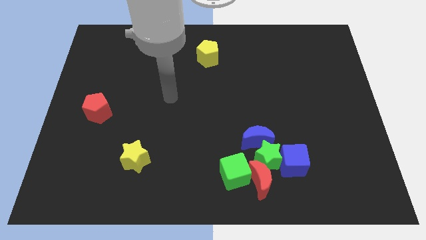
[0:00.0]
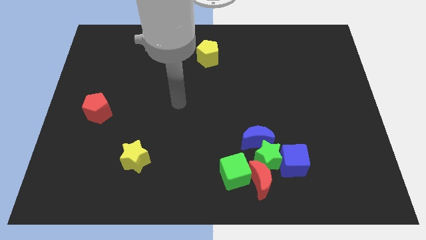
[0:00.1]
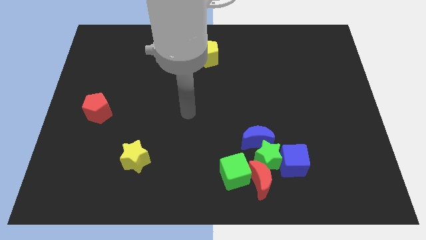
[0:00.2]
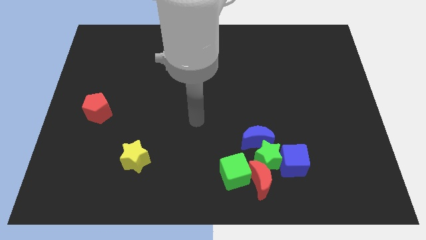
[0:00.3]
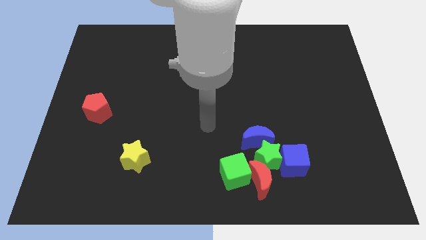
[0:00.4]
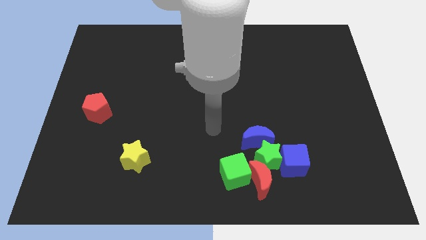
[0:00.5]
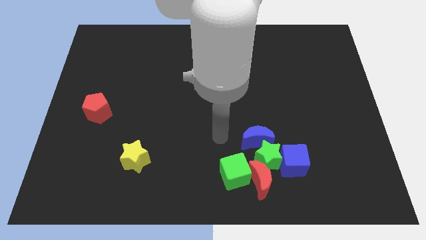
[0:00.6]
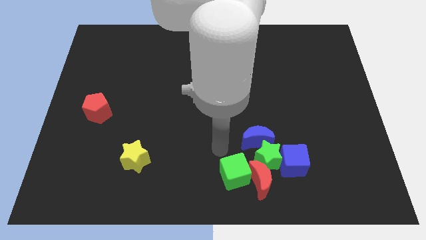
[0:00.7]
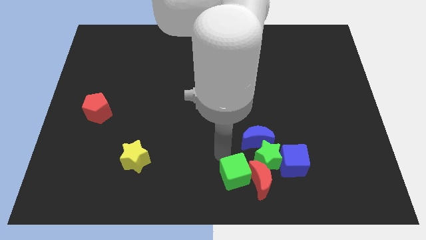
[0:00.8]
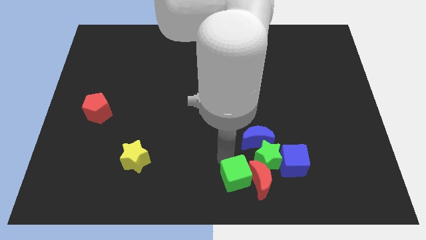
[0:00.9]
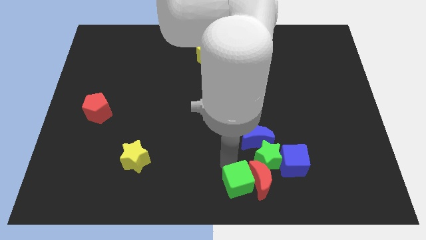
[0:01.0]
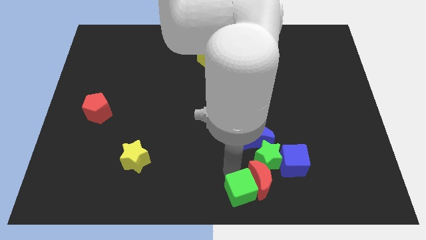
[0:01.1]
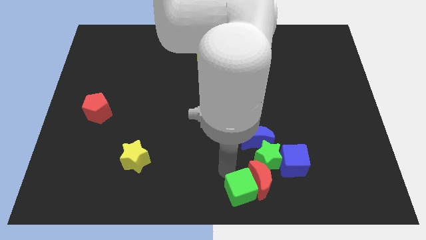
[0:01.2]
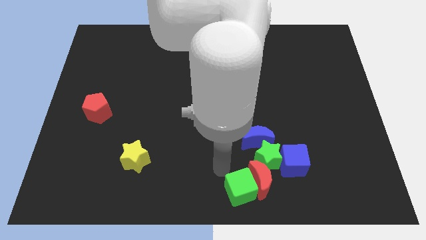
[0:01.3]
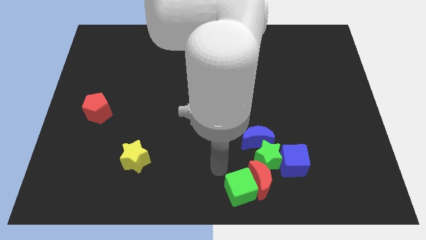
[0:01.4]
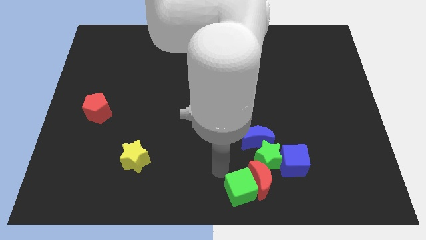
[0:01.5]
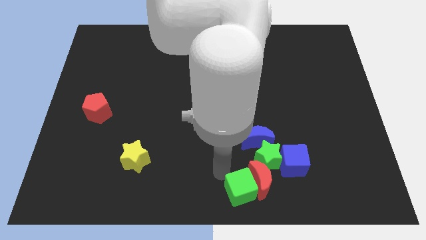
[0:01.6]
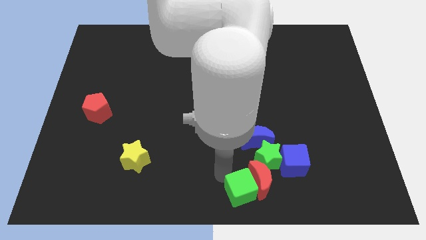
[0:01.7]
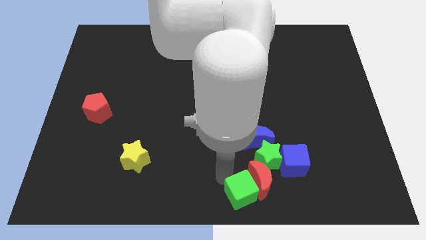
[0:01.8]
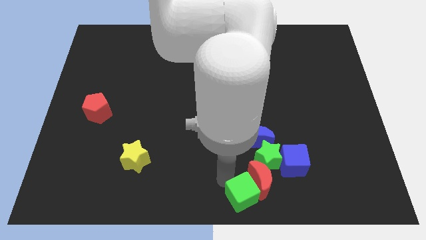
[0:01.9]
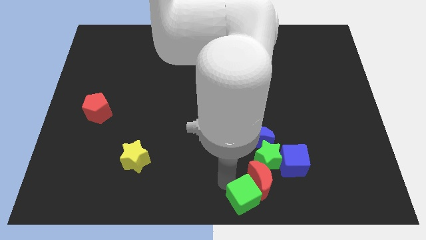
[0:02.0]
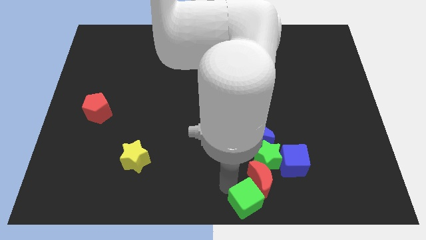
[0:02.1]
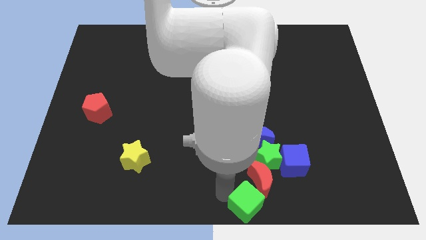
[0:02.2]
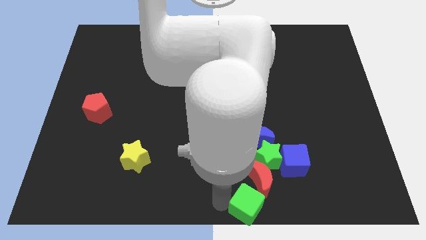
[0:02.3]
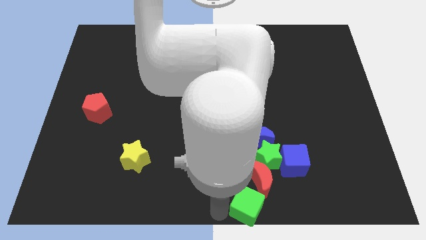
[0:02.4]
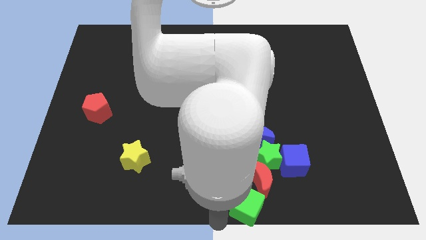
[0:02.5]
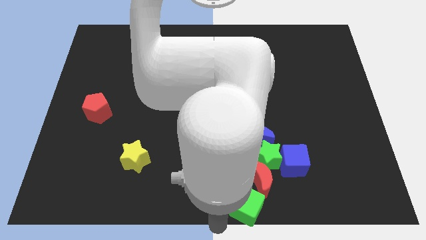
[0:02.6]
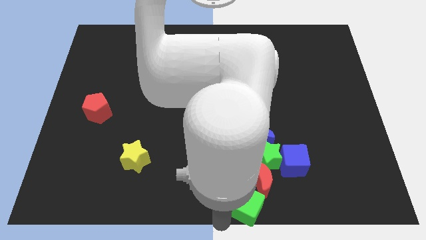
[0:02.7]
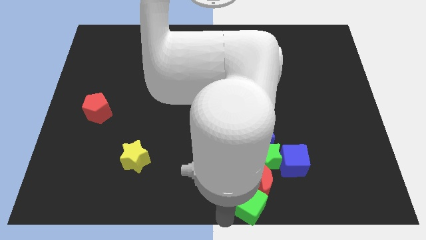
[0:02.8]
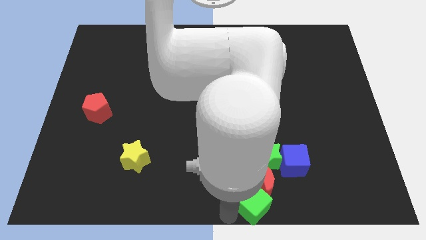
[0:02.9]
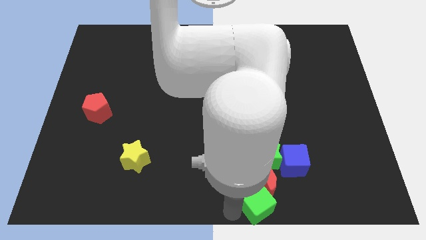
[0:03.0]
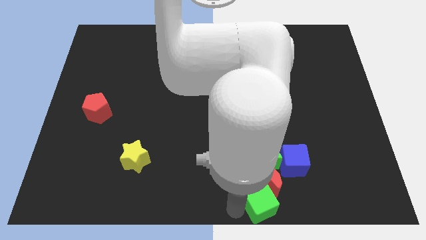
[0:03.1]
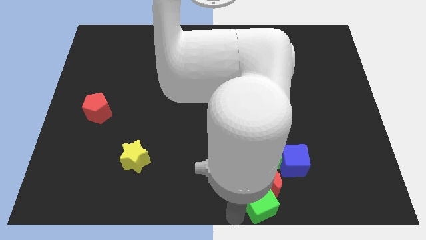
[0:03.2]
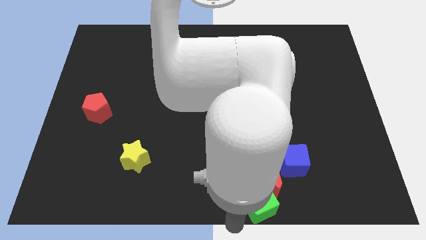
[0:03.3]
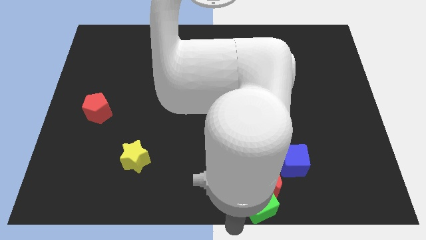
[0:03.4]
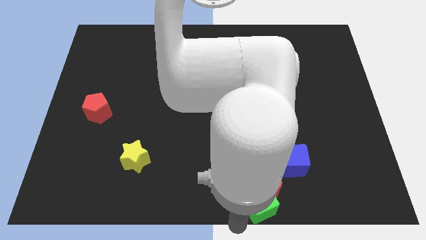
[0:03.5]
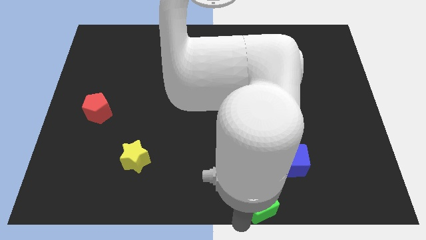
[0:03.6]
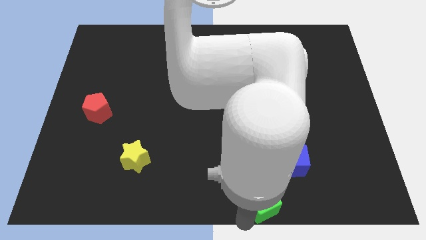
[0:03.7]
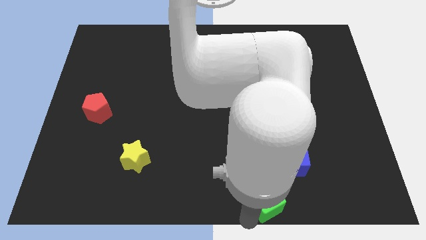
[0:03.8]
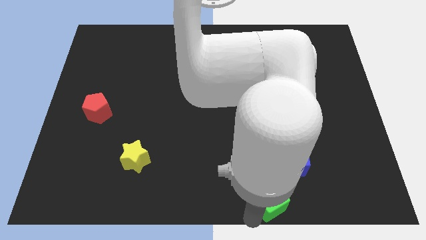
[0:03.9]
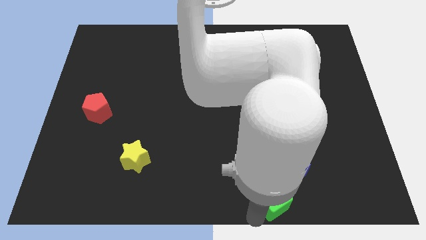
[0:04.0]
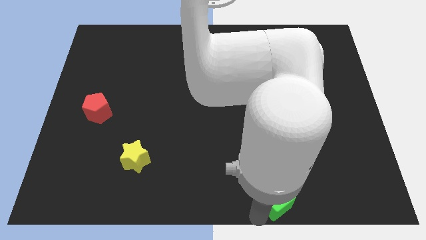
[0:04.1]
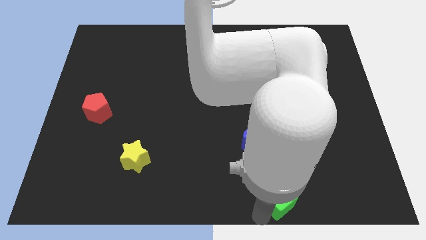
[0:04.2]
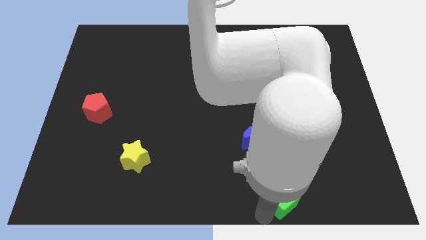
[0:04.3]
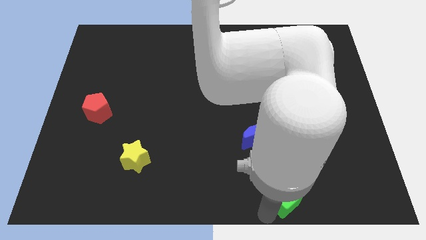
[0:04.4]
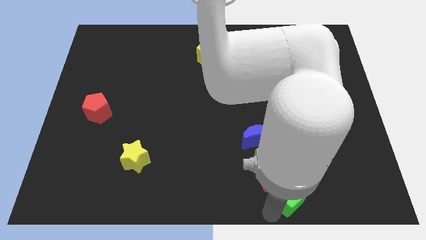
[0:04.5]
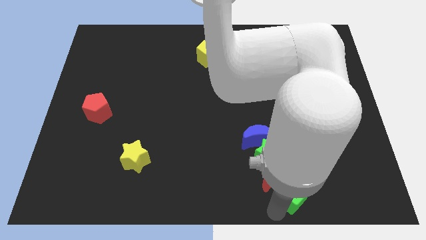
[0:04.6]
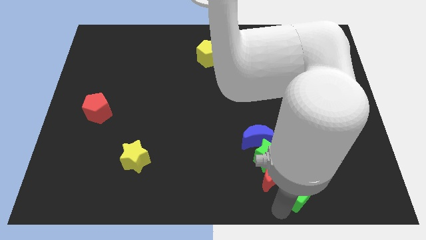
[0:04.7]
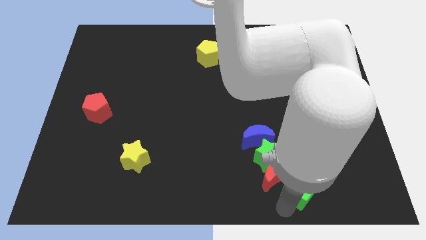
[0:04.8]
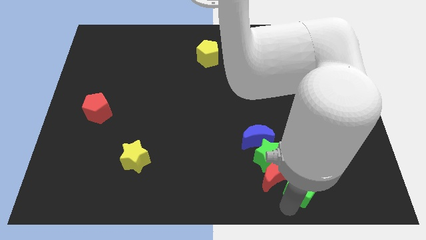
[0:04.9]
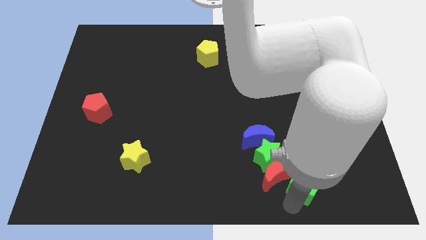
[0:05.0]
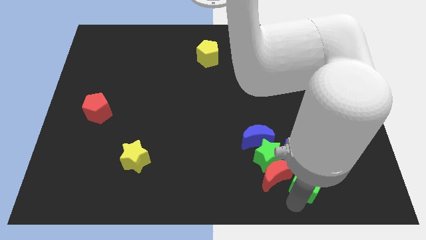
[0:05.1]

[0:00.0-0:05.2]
slide the green cube towards the blue cube

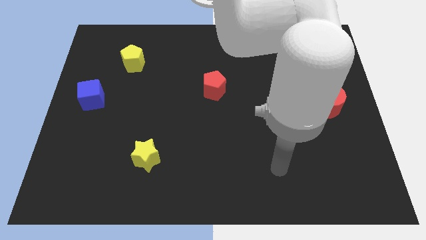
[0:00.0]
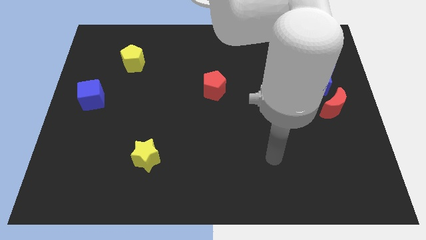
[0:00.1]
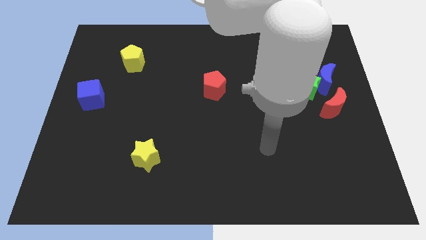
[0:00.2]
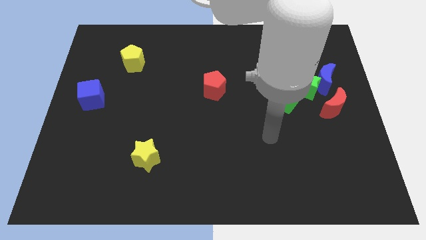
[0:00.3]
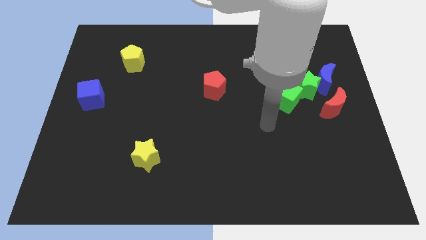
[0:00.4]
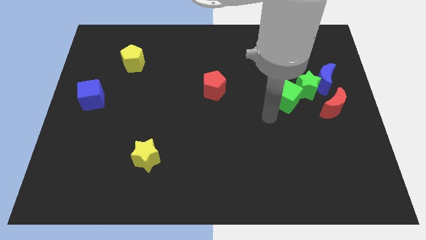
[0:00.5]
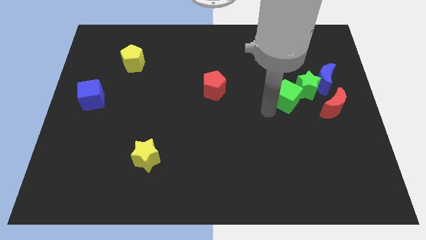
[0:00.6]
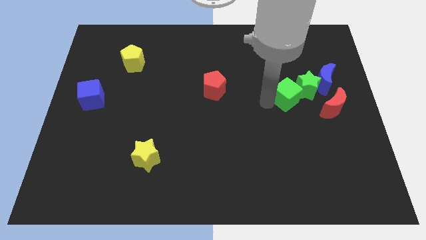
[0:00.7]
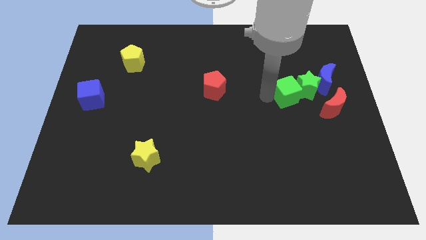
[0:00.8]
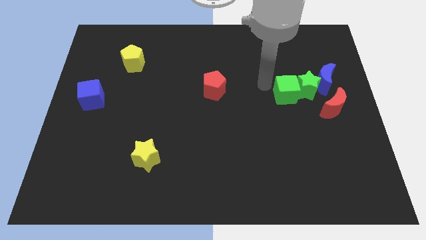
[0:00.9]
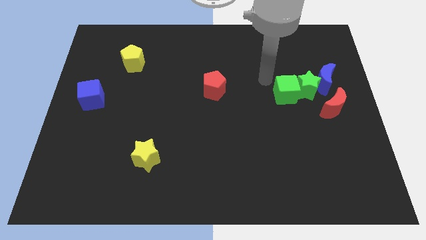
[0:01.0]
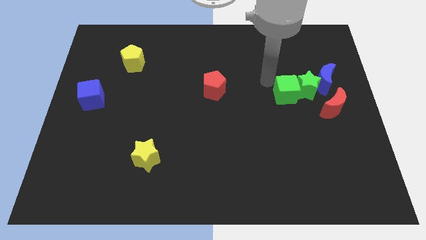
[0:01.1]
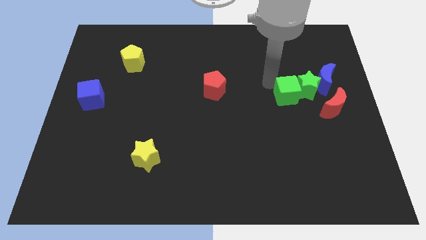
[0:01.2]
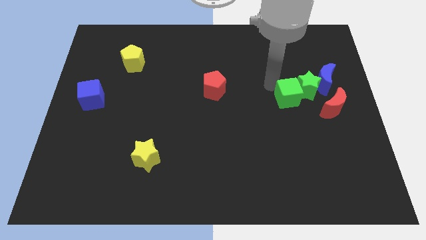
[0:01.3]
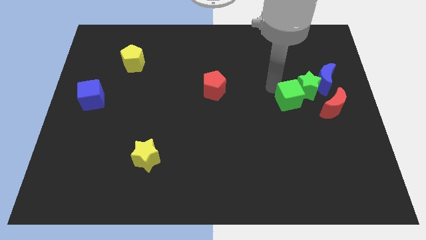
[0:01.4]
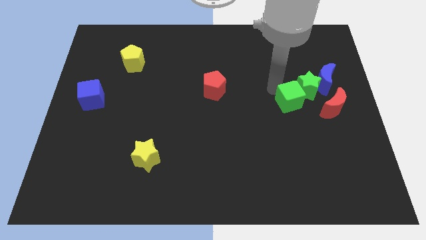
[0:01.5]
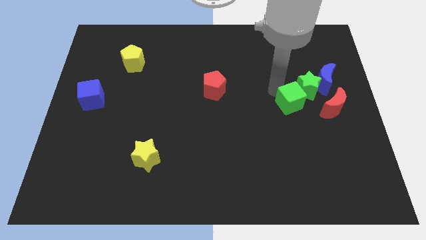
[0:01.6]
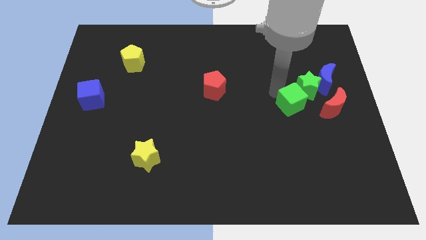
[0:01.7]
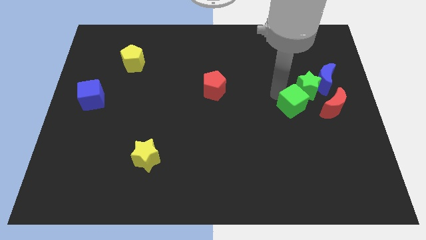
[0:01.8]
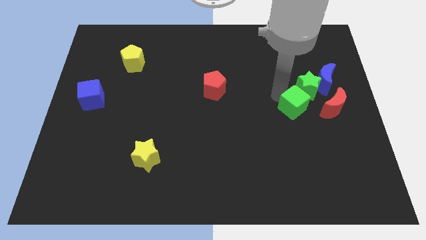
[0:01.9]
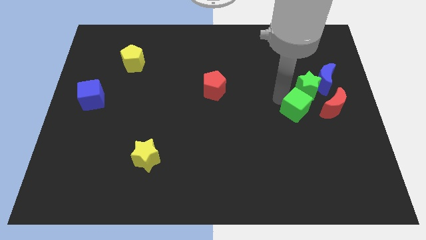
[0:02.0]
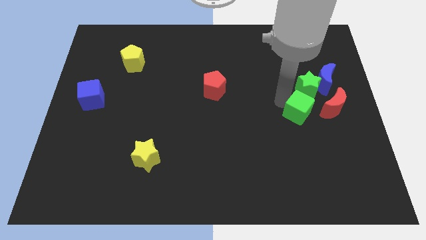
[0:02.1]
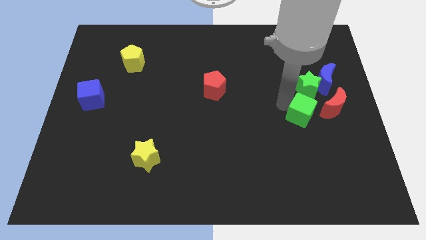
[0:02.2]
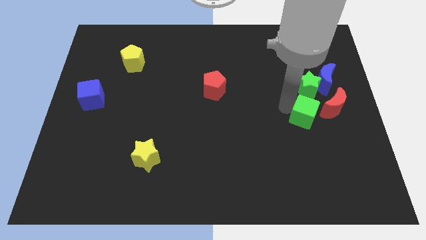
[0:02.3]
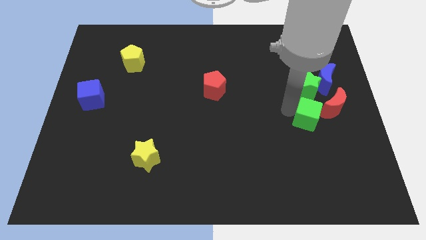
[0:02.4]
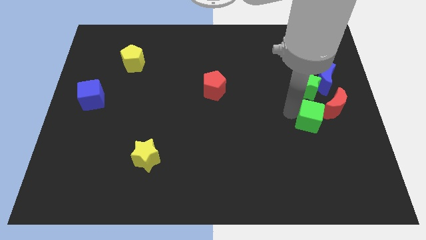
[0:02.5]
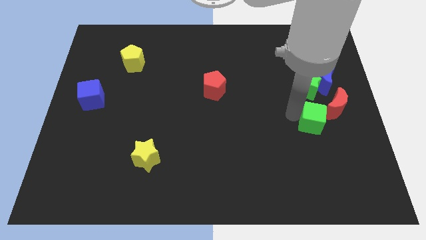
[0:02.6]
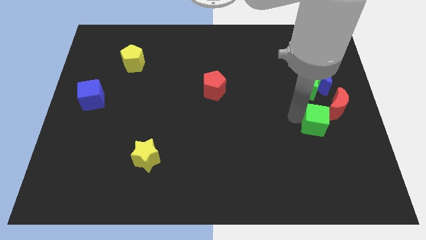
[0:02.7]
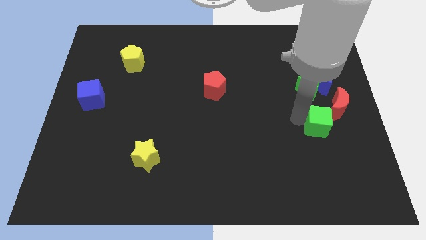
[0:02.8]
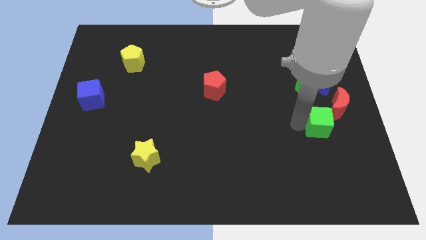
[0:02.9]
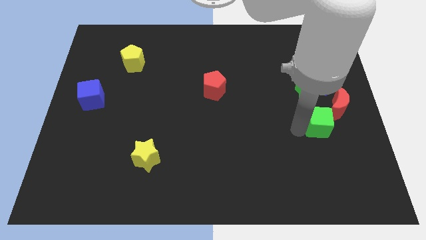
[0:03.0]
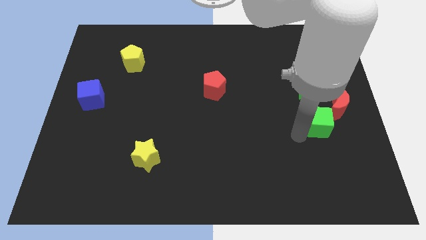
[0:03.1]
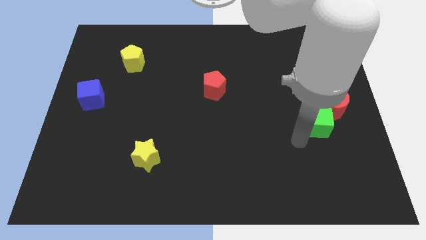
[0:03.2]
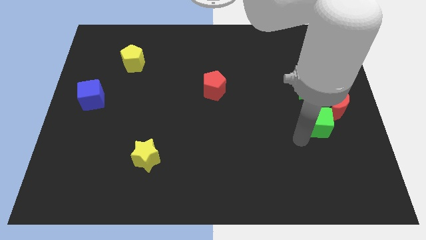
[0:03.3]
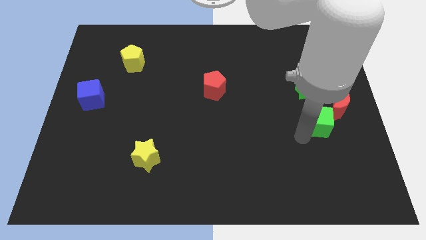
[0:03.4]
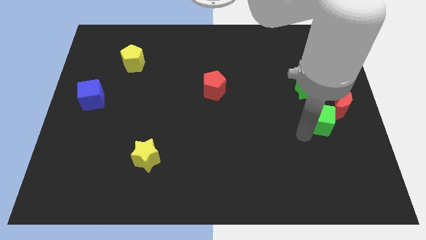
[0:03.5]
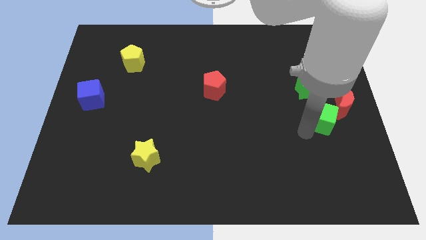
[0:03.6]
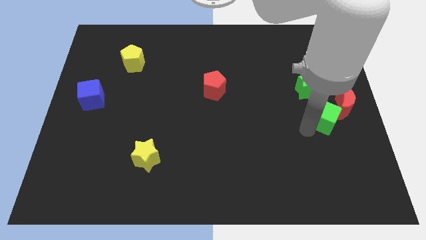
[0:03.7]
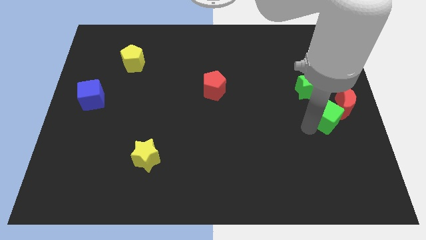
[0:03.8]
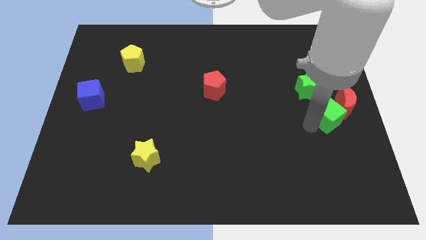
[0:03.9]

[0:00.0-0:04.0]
put the green cube towards the red moon
